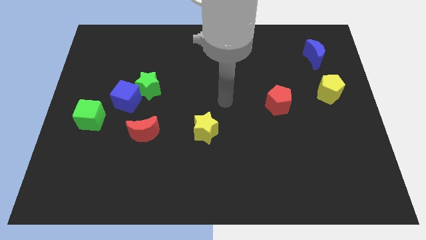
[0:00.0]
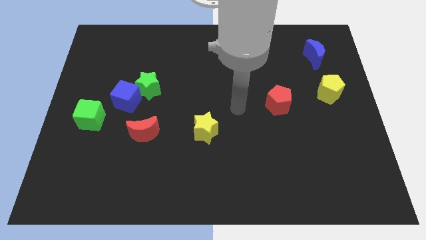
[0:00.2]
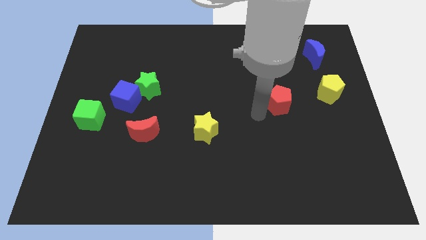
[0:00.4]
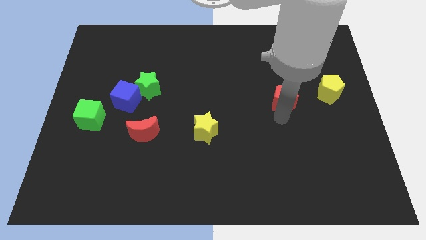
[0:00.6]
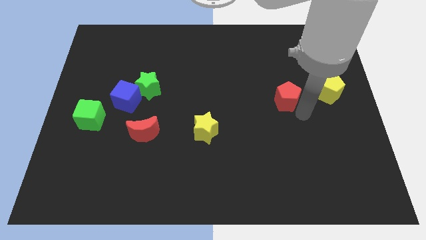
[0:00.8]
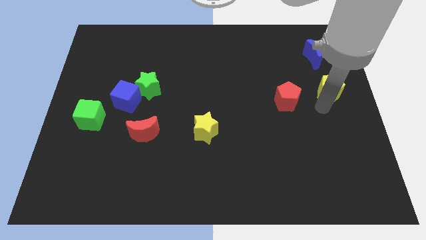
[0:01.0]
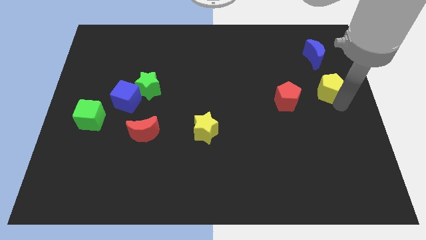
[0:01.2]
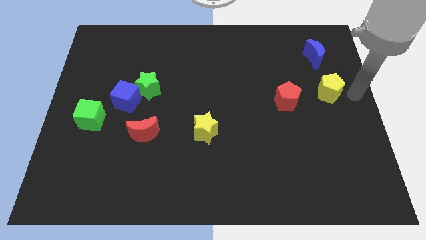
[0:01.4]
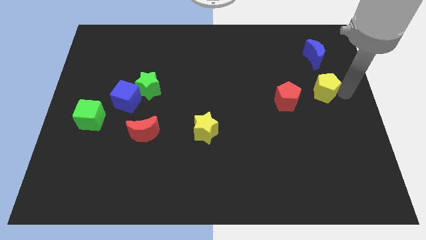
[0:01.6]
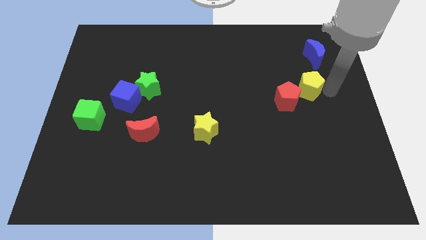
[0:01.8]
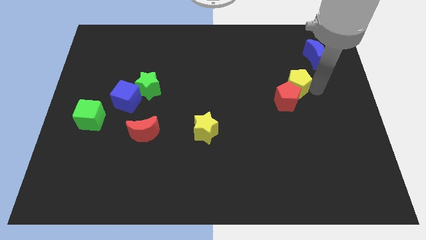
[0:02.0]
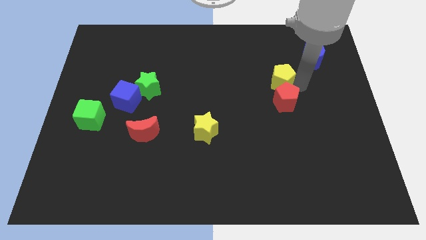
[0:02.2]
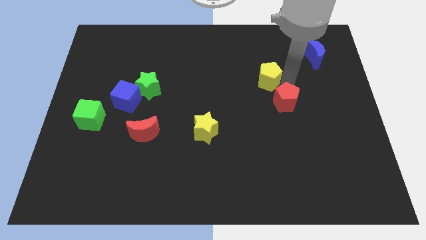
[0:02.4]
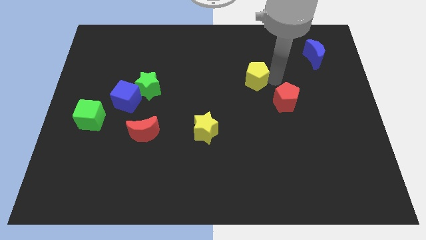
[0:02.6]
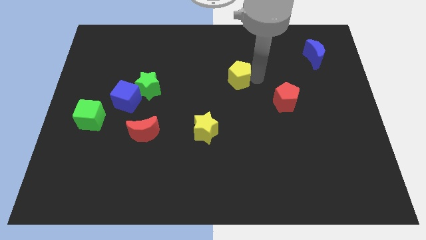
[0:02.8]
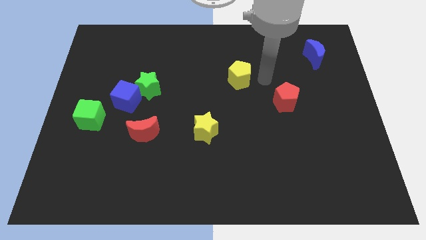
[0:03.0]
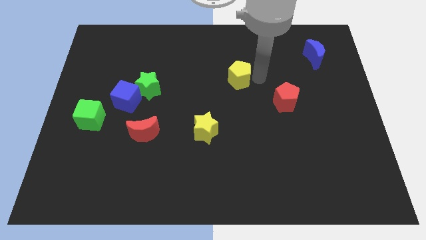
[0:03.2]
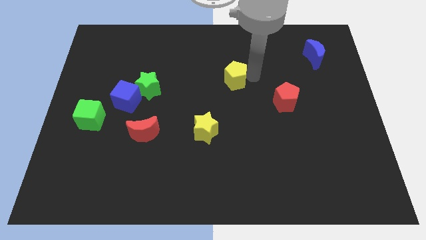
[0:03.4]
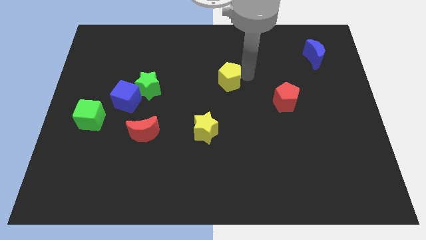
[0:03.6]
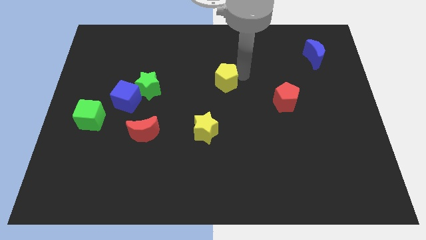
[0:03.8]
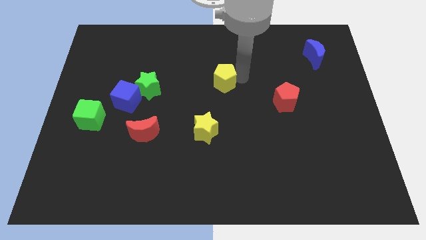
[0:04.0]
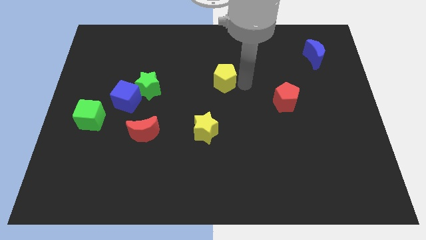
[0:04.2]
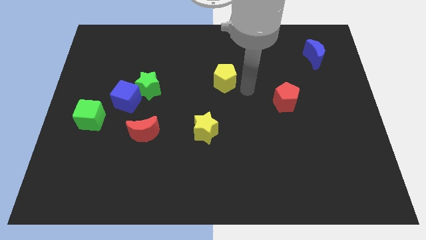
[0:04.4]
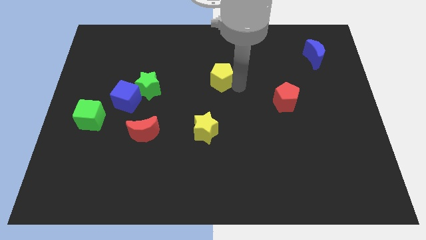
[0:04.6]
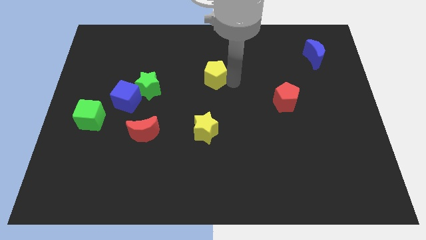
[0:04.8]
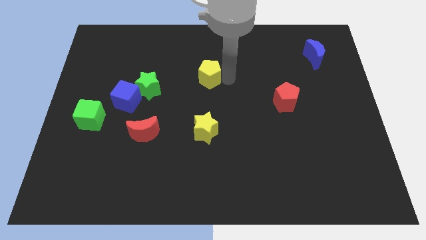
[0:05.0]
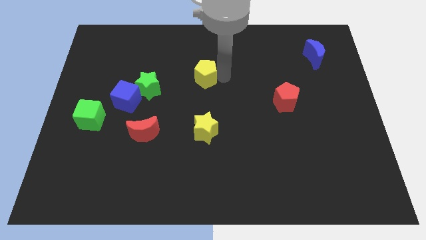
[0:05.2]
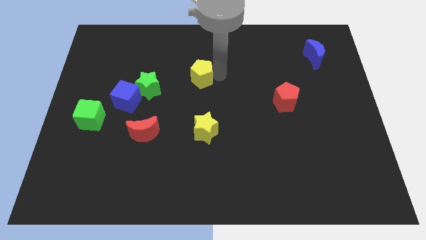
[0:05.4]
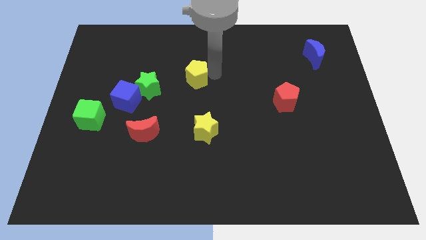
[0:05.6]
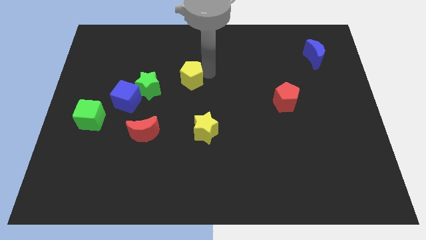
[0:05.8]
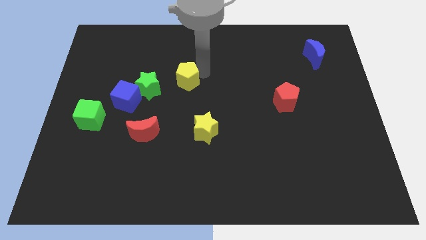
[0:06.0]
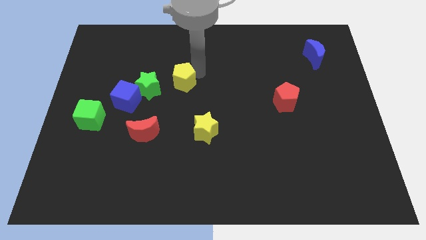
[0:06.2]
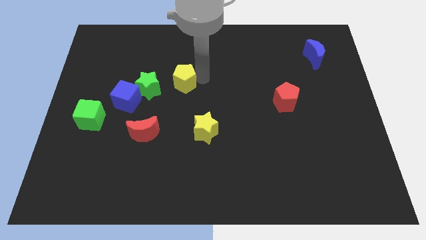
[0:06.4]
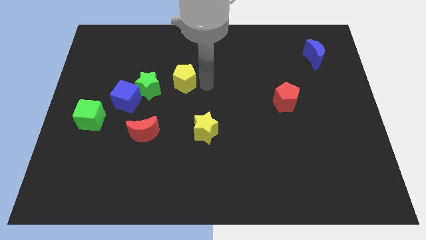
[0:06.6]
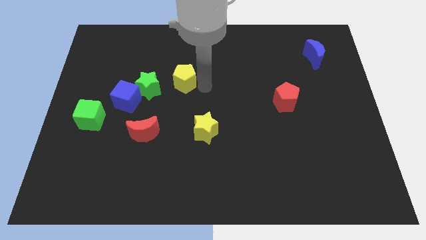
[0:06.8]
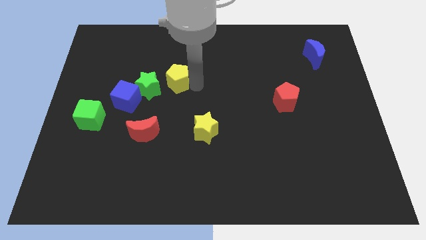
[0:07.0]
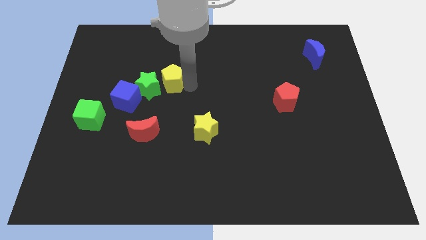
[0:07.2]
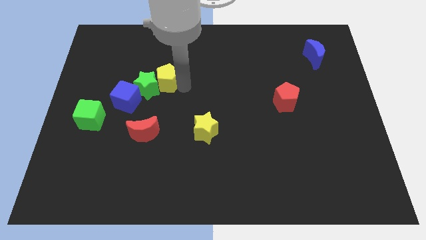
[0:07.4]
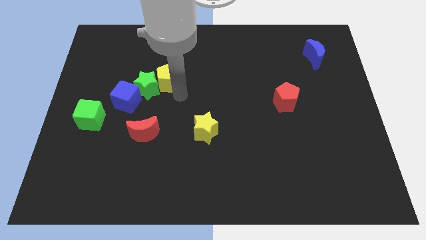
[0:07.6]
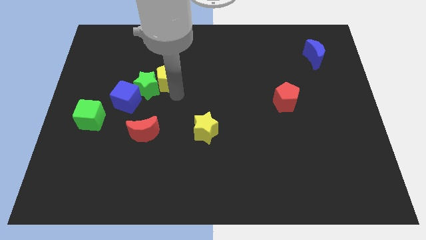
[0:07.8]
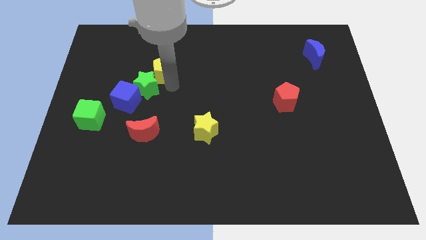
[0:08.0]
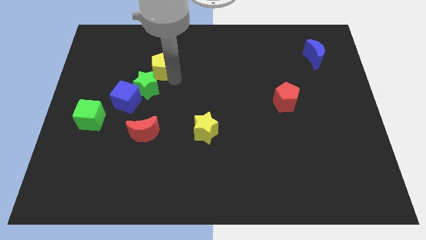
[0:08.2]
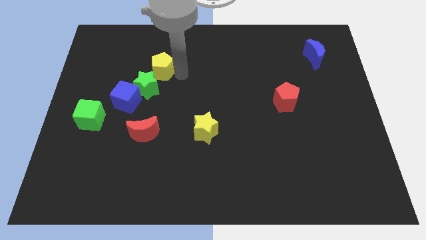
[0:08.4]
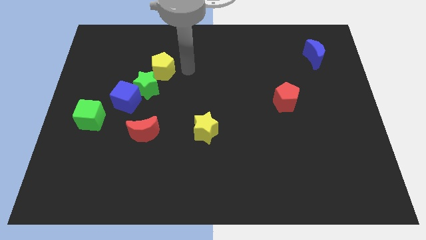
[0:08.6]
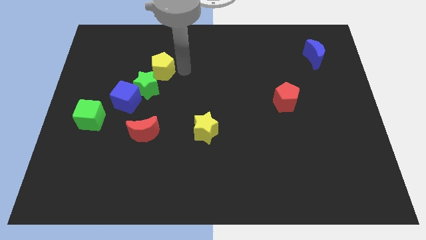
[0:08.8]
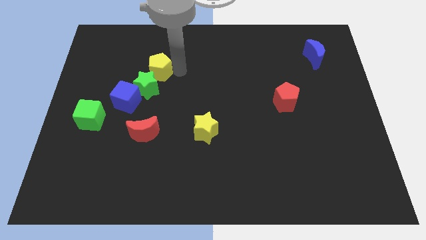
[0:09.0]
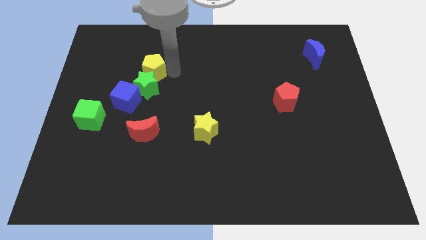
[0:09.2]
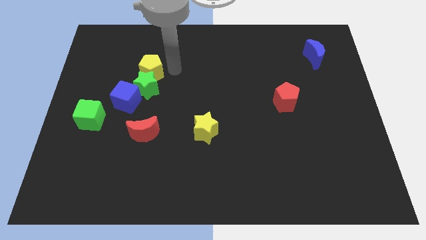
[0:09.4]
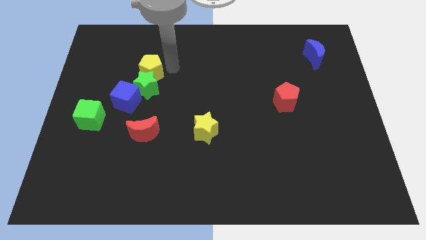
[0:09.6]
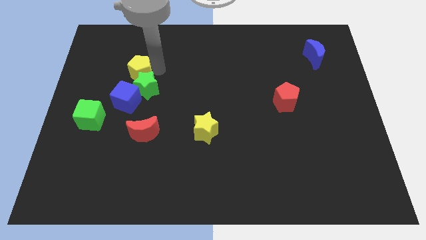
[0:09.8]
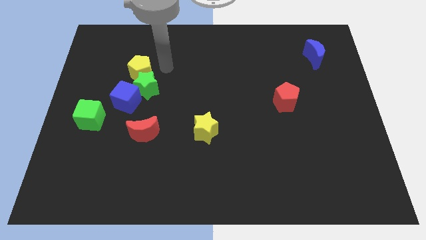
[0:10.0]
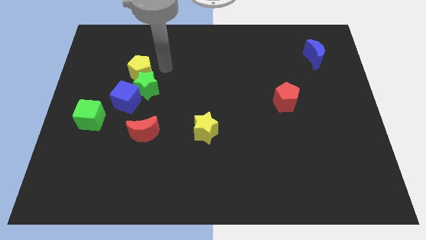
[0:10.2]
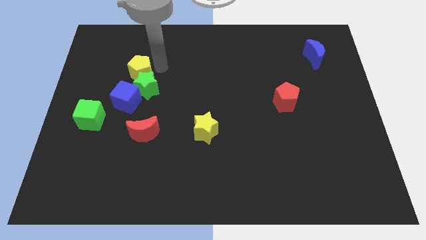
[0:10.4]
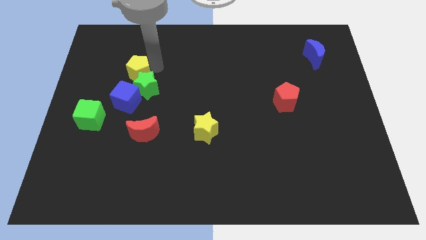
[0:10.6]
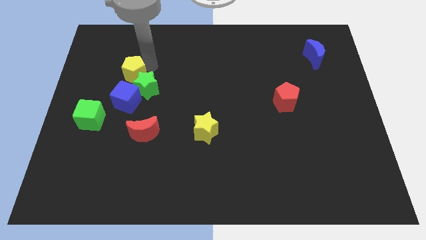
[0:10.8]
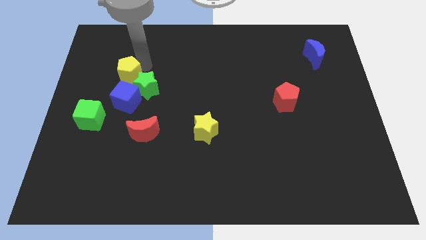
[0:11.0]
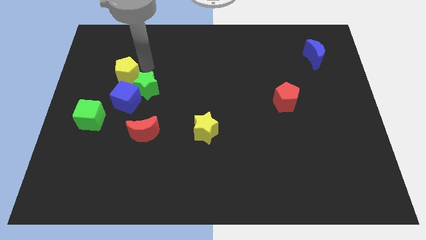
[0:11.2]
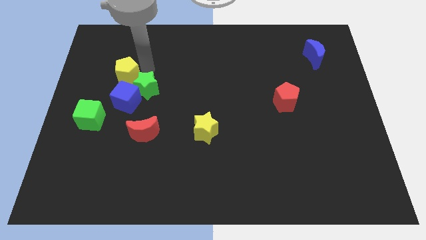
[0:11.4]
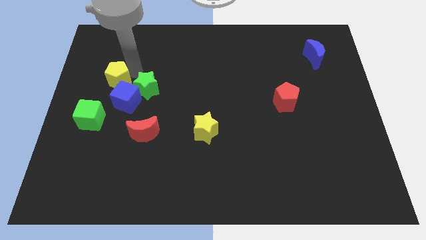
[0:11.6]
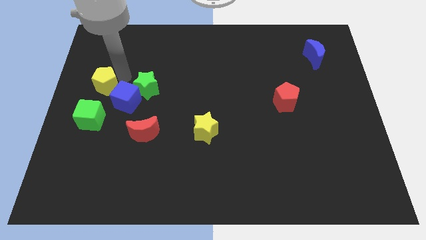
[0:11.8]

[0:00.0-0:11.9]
slide the yellow pentagon to the center left
